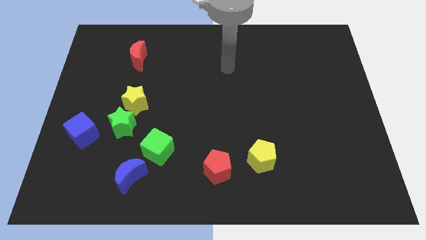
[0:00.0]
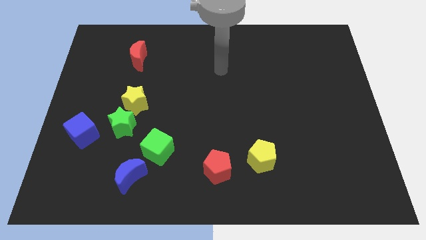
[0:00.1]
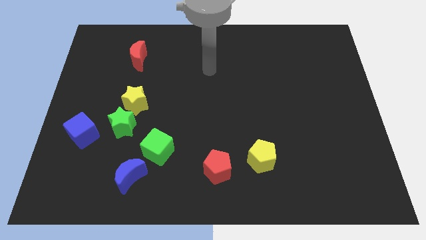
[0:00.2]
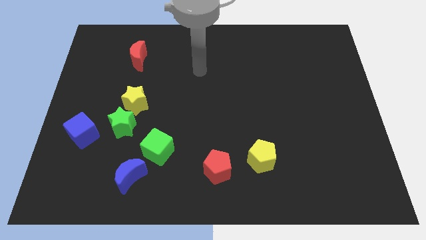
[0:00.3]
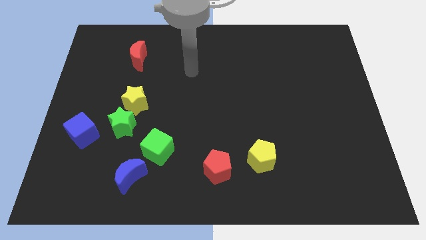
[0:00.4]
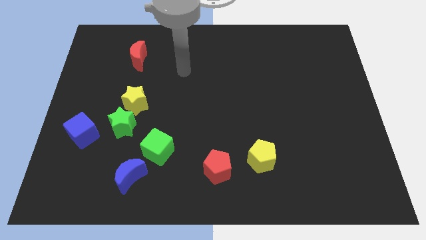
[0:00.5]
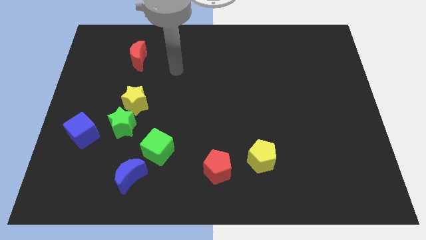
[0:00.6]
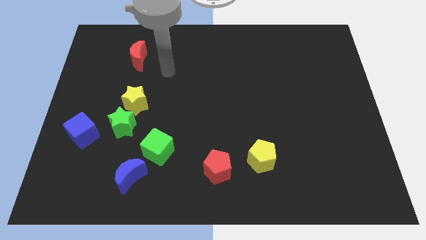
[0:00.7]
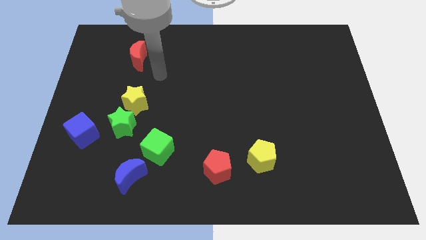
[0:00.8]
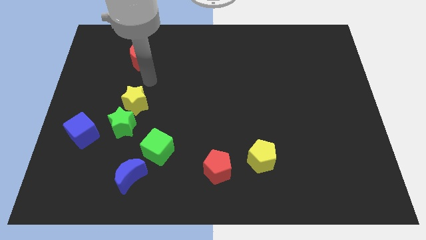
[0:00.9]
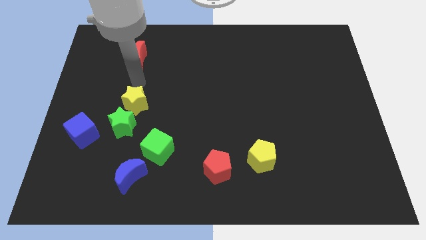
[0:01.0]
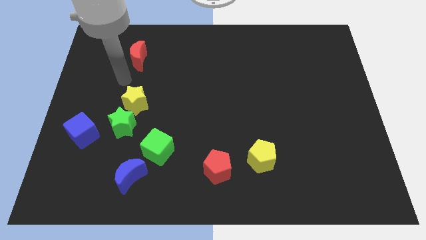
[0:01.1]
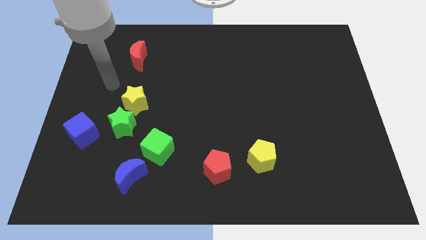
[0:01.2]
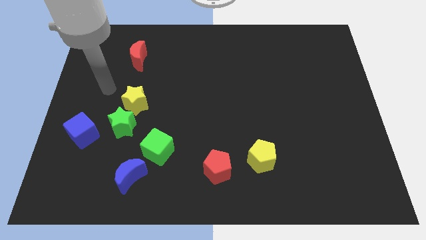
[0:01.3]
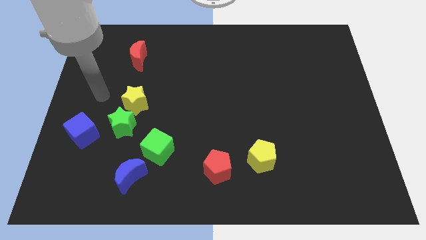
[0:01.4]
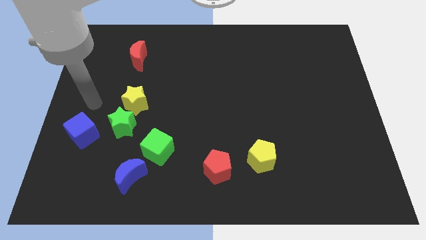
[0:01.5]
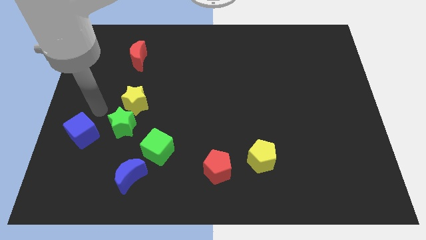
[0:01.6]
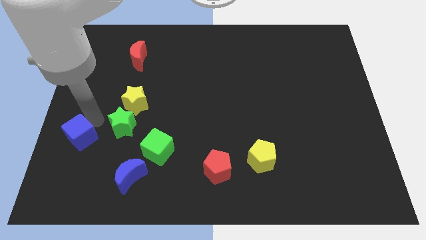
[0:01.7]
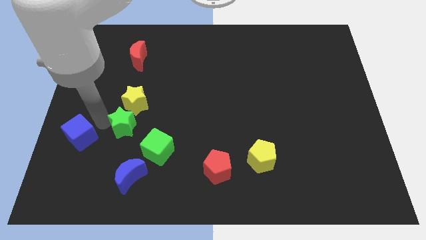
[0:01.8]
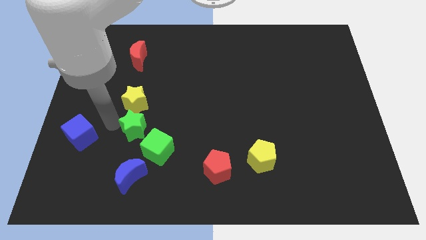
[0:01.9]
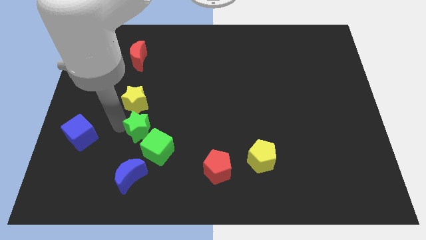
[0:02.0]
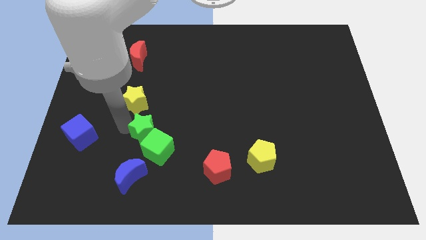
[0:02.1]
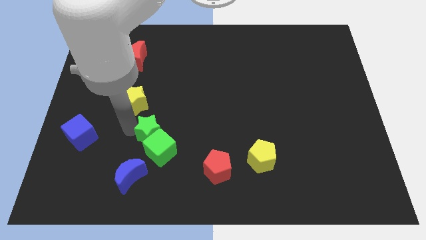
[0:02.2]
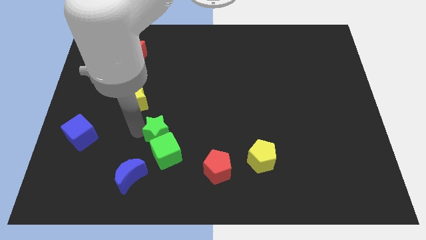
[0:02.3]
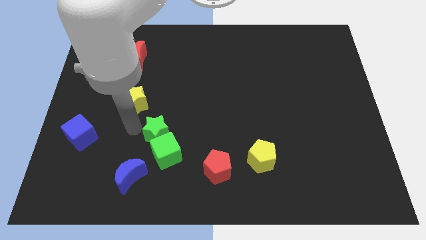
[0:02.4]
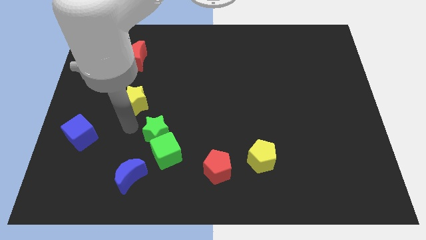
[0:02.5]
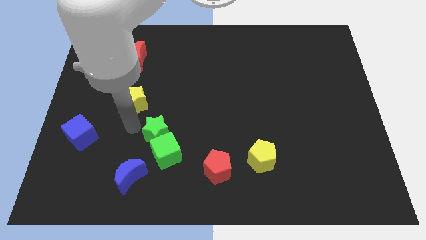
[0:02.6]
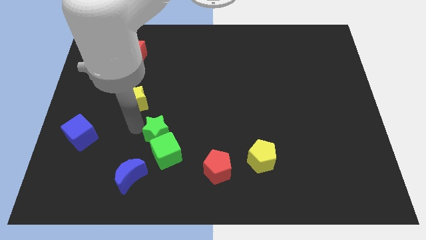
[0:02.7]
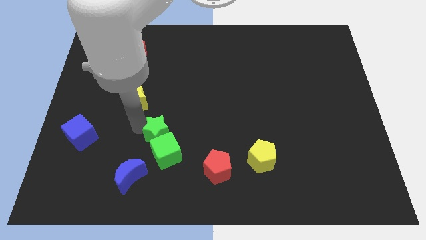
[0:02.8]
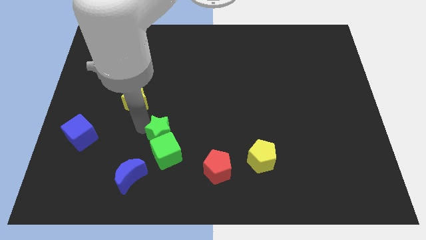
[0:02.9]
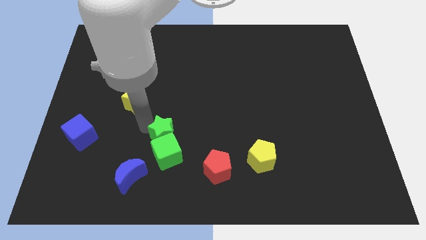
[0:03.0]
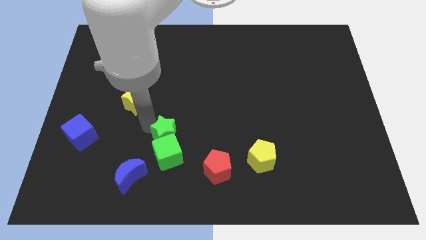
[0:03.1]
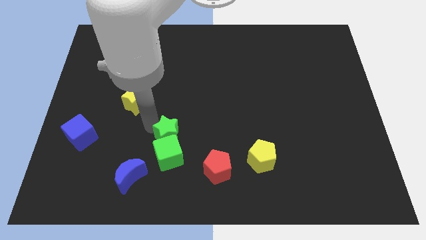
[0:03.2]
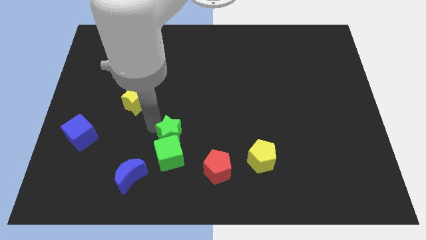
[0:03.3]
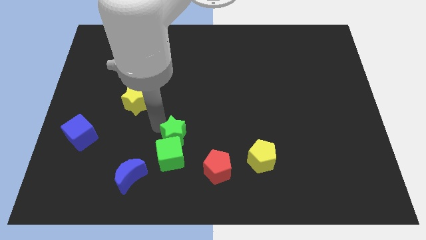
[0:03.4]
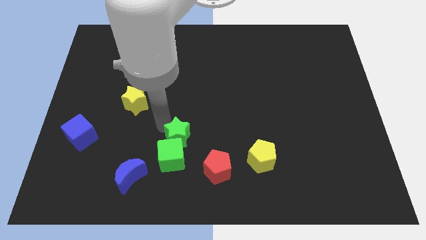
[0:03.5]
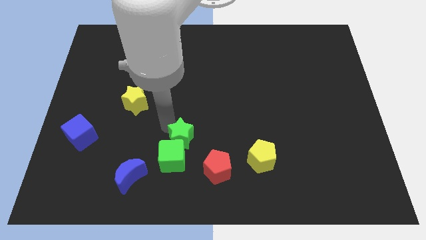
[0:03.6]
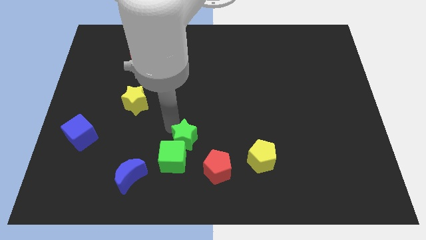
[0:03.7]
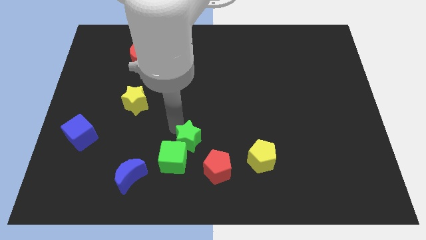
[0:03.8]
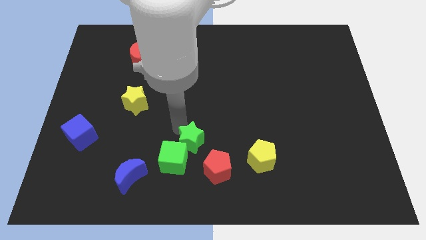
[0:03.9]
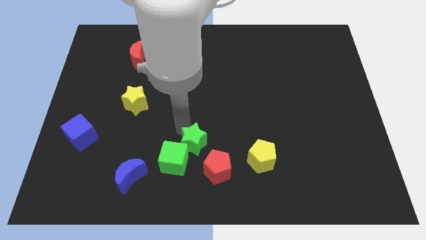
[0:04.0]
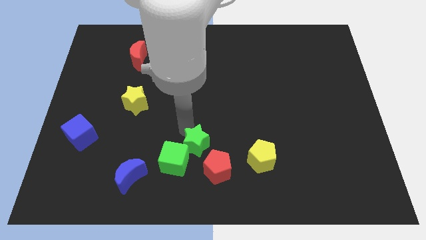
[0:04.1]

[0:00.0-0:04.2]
move the green star to the left of the yellow pentagon

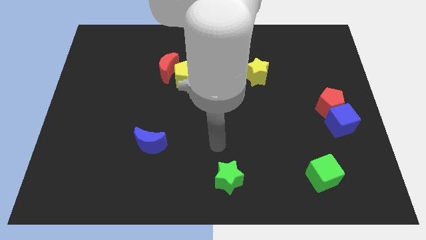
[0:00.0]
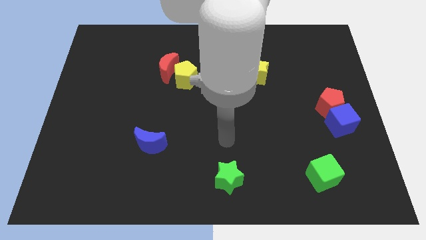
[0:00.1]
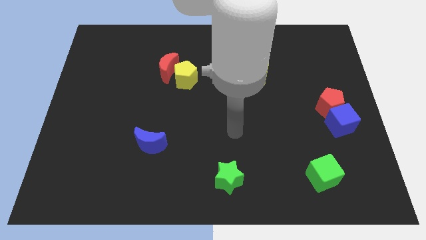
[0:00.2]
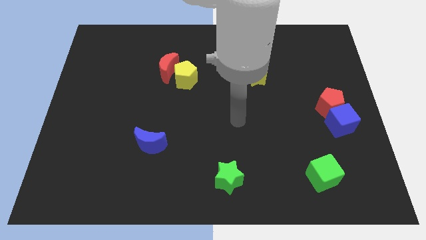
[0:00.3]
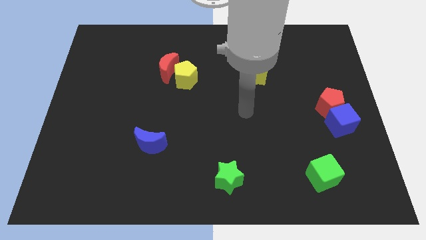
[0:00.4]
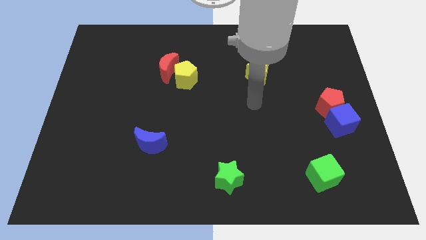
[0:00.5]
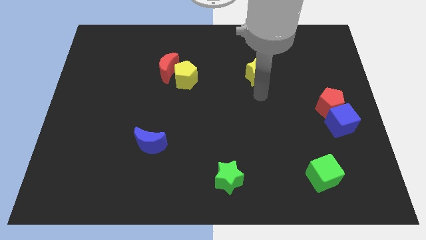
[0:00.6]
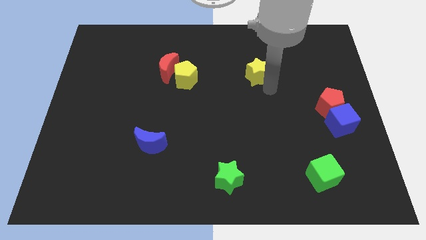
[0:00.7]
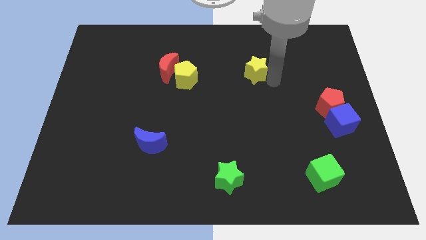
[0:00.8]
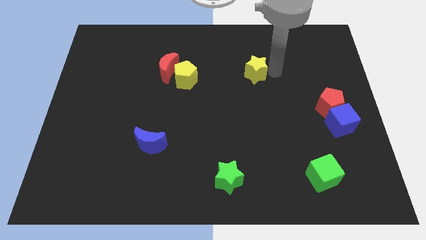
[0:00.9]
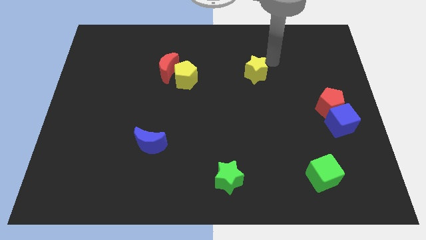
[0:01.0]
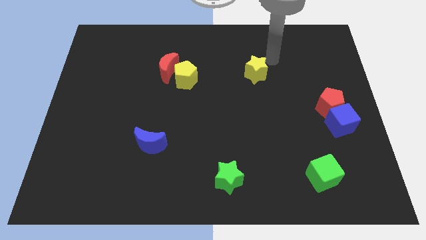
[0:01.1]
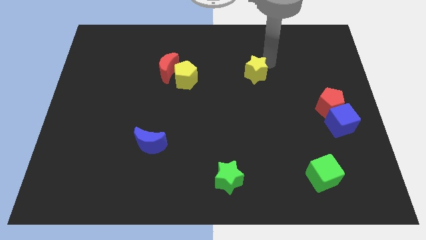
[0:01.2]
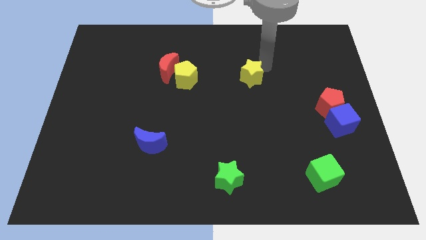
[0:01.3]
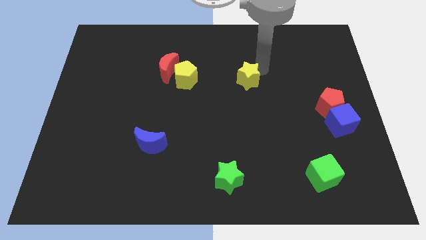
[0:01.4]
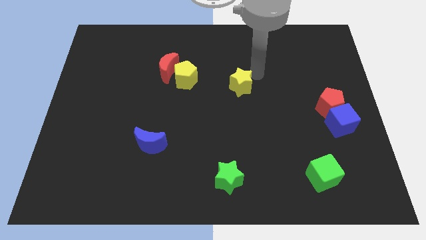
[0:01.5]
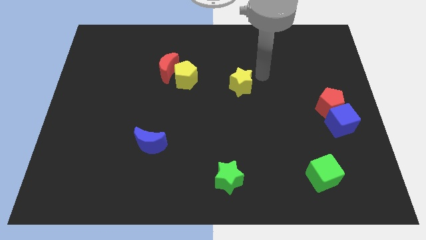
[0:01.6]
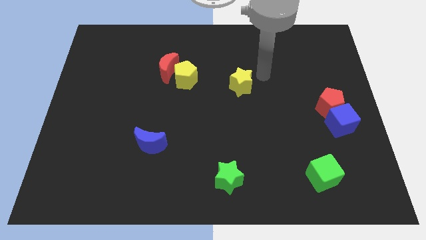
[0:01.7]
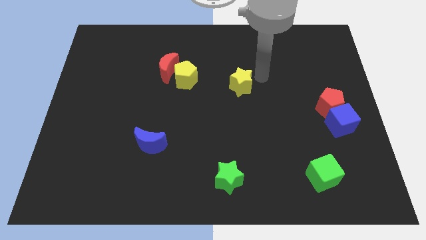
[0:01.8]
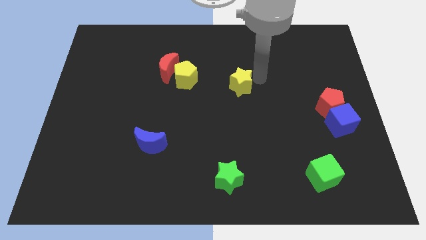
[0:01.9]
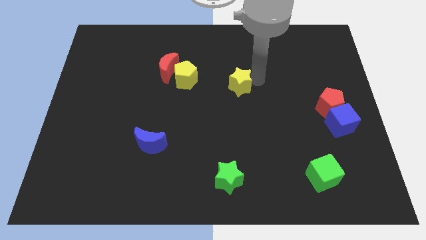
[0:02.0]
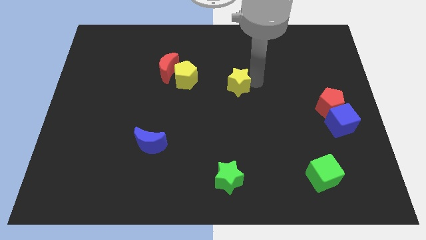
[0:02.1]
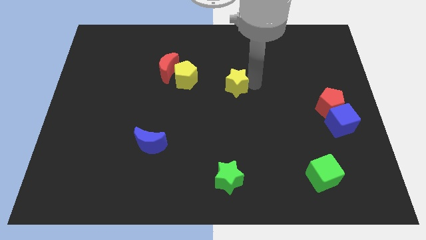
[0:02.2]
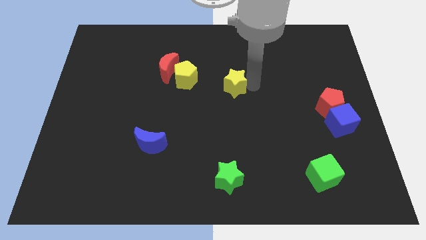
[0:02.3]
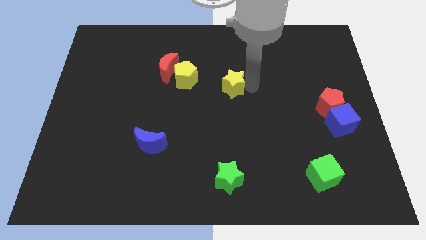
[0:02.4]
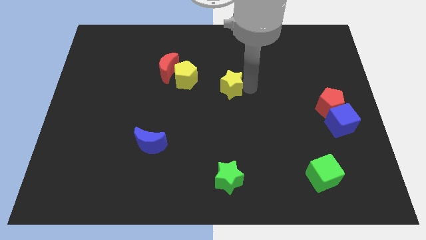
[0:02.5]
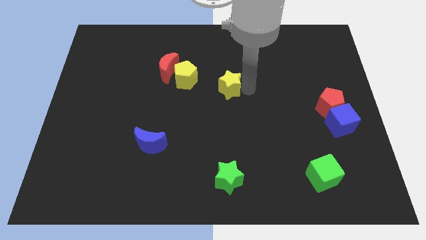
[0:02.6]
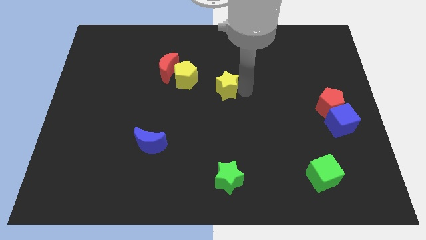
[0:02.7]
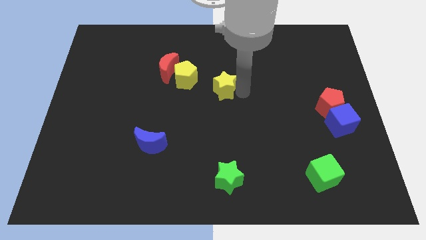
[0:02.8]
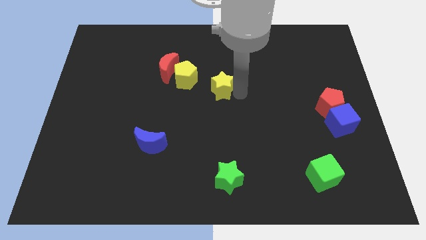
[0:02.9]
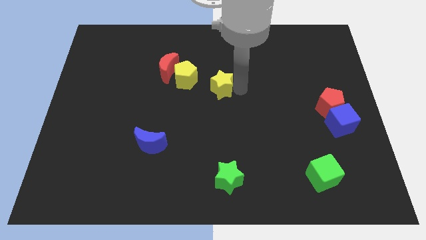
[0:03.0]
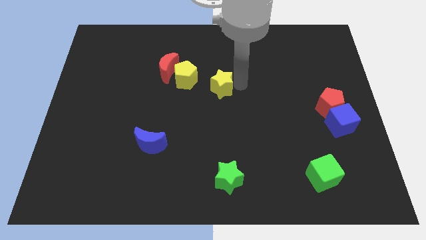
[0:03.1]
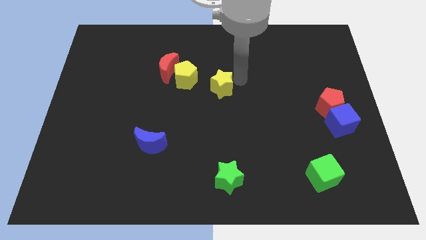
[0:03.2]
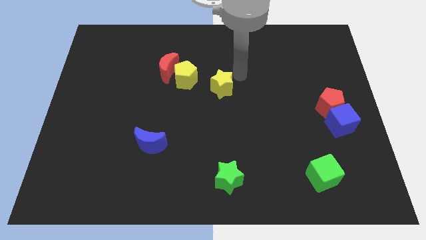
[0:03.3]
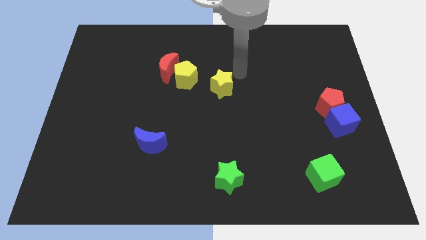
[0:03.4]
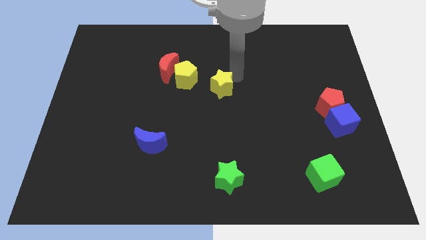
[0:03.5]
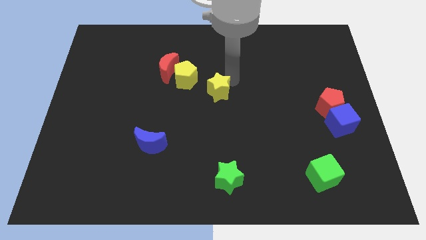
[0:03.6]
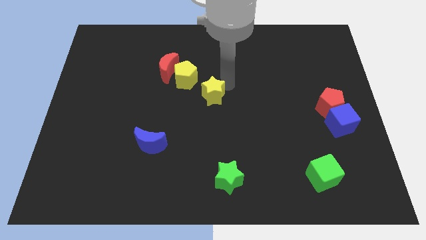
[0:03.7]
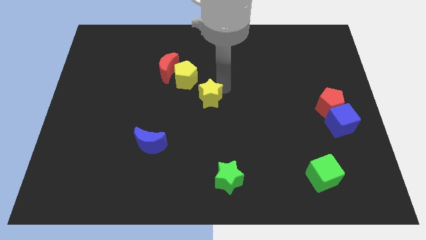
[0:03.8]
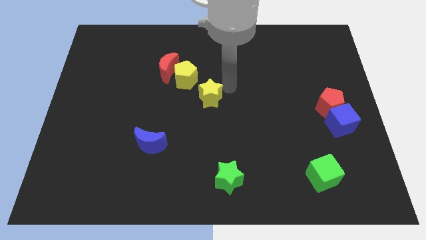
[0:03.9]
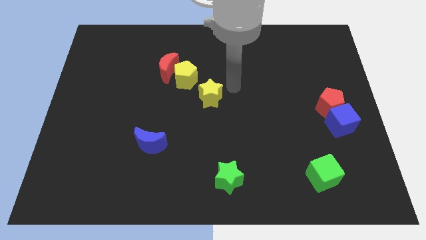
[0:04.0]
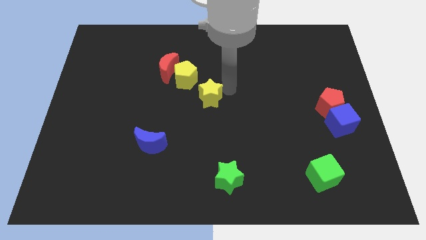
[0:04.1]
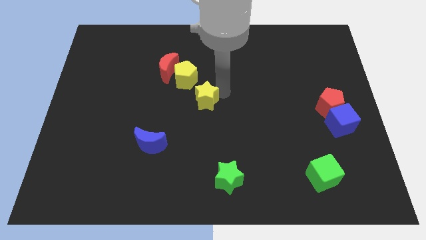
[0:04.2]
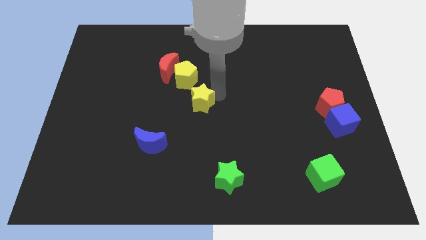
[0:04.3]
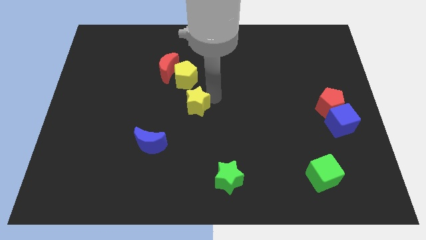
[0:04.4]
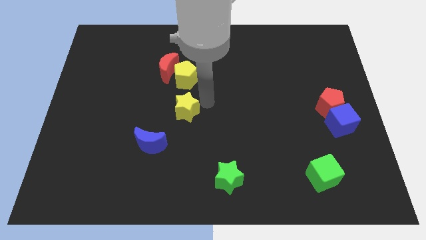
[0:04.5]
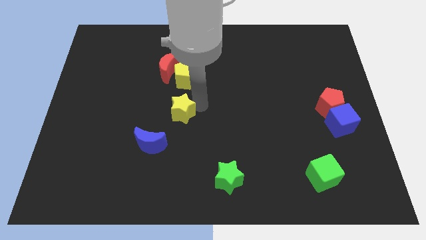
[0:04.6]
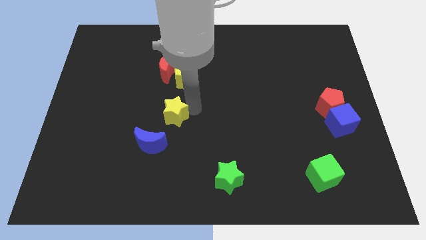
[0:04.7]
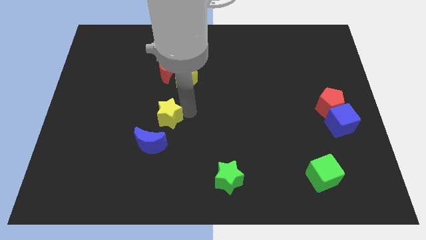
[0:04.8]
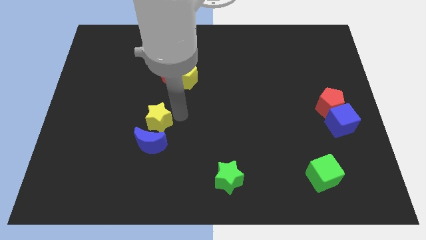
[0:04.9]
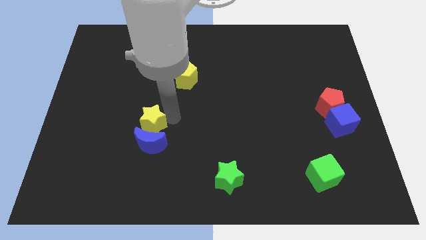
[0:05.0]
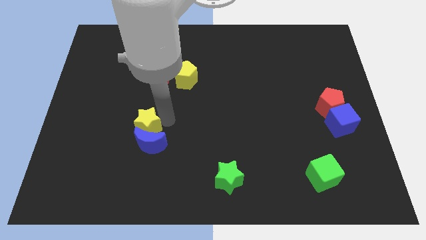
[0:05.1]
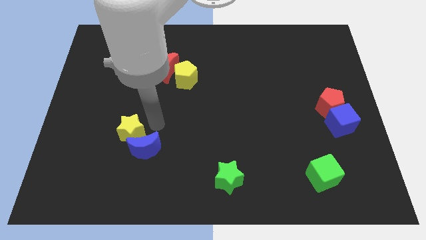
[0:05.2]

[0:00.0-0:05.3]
move the yellow star left of the blue moon
